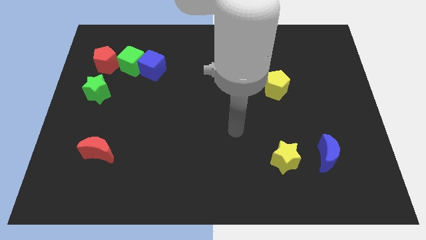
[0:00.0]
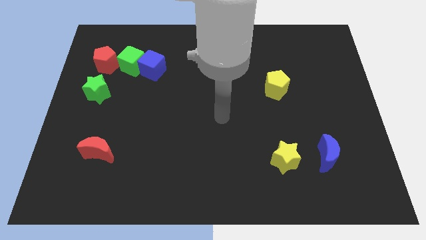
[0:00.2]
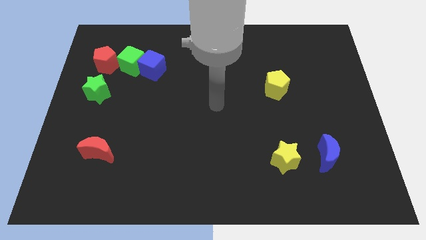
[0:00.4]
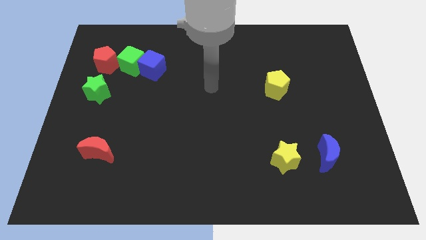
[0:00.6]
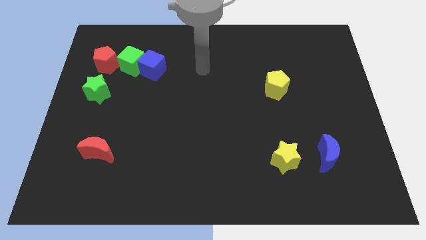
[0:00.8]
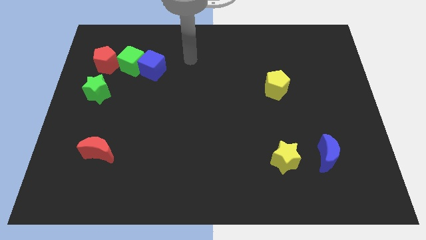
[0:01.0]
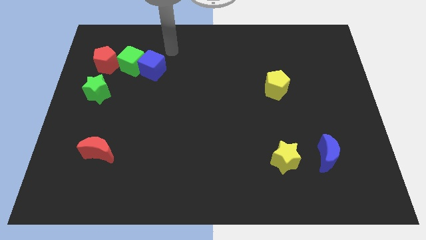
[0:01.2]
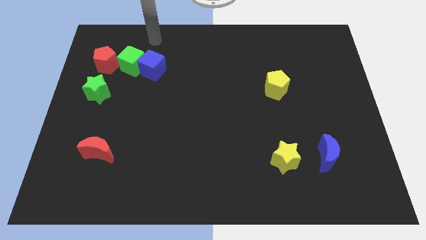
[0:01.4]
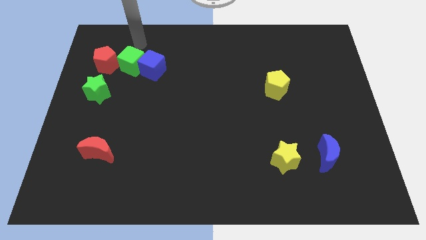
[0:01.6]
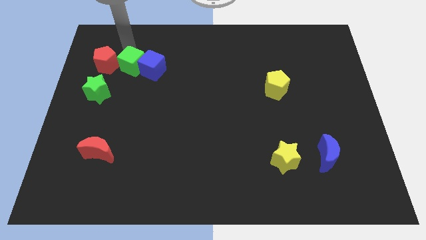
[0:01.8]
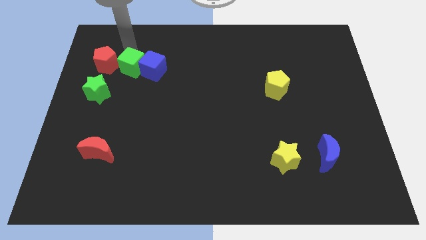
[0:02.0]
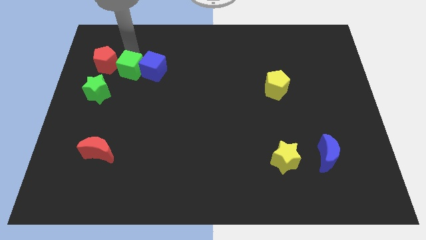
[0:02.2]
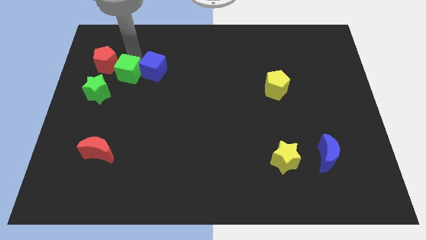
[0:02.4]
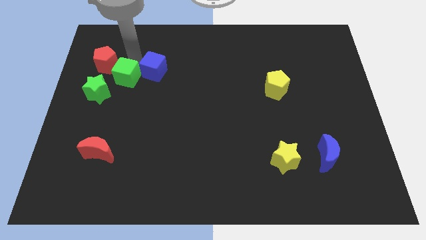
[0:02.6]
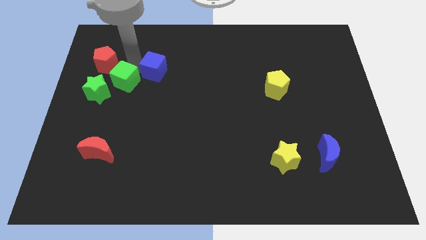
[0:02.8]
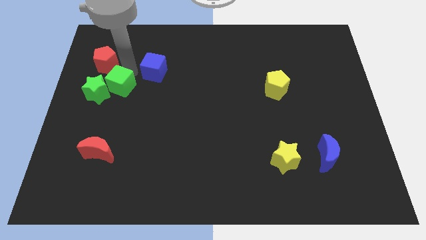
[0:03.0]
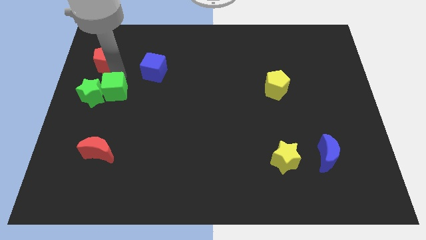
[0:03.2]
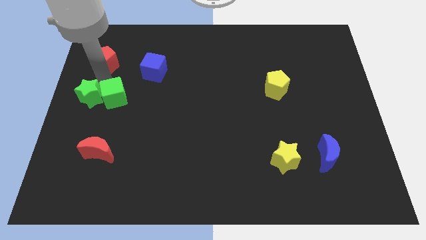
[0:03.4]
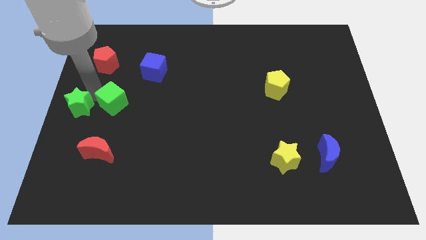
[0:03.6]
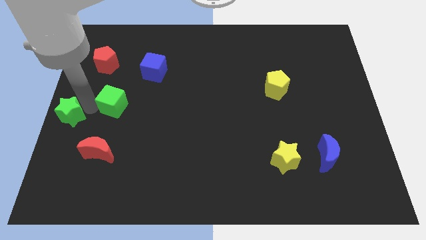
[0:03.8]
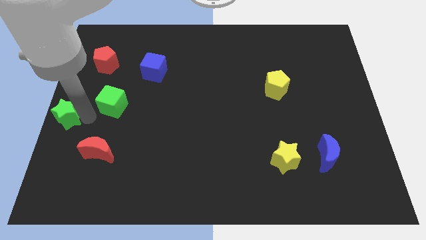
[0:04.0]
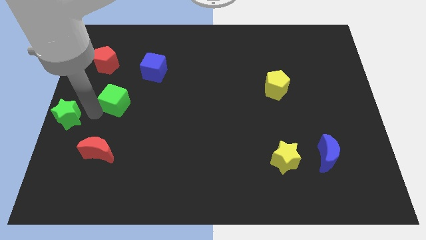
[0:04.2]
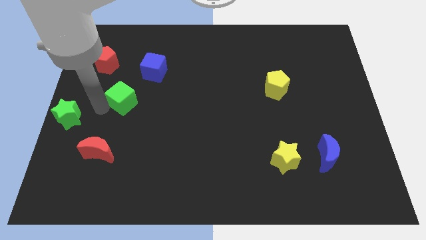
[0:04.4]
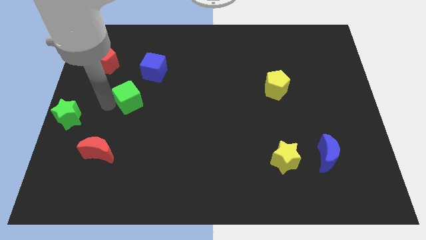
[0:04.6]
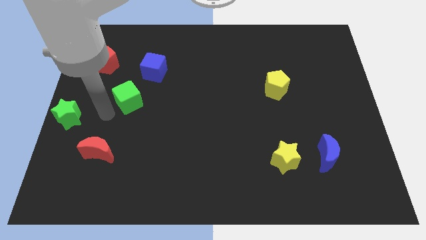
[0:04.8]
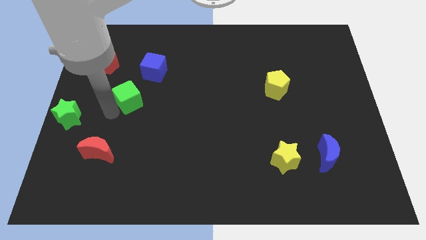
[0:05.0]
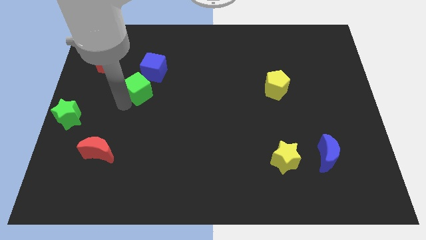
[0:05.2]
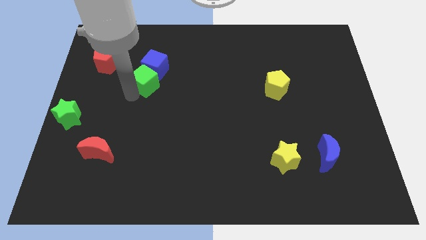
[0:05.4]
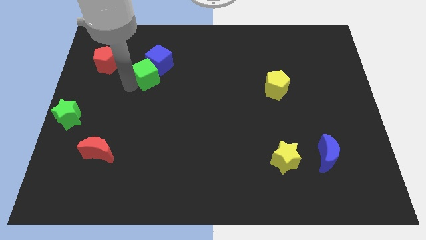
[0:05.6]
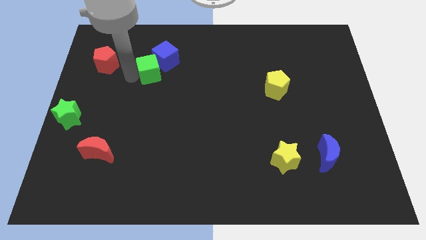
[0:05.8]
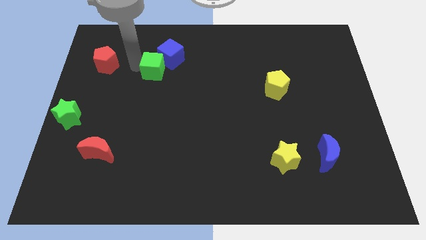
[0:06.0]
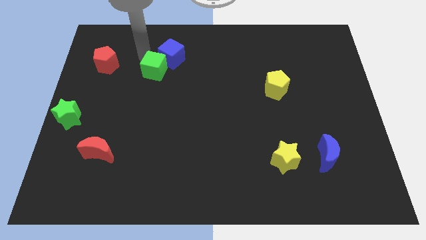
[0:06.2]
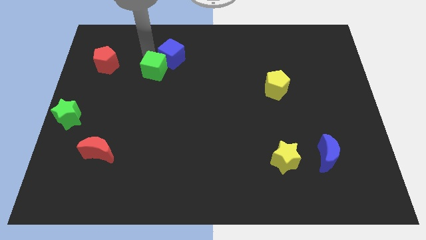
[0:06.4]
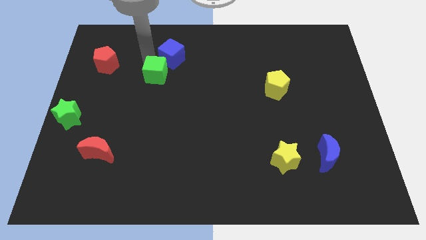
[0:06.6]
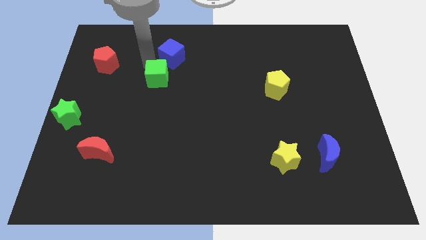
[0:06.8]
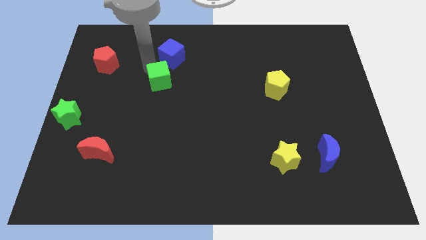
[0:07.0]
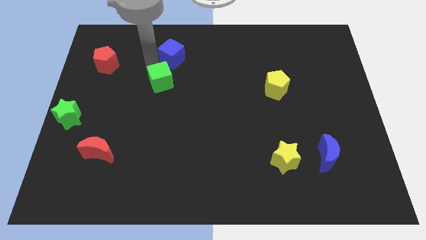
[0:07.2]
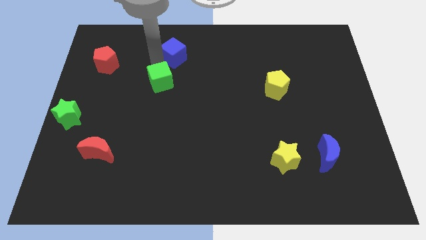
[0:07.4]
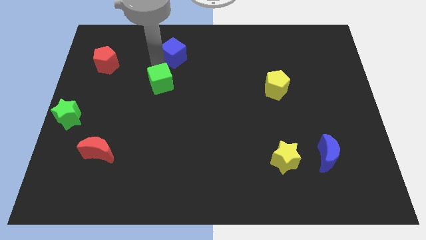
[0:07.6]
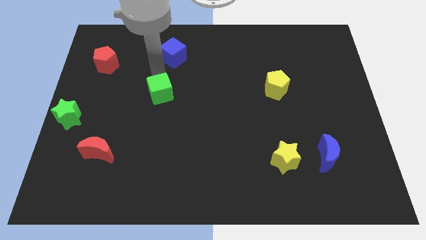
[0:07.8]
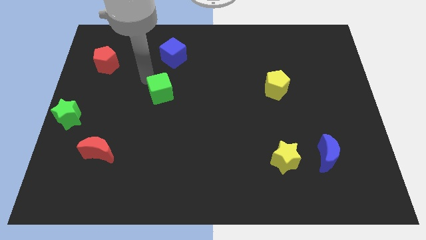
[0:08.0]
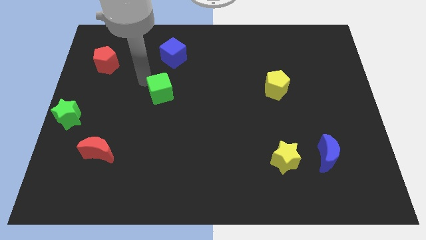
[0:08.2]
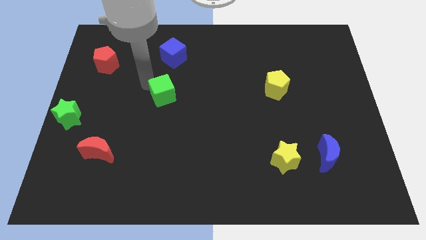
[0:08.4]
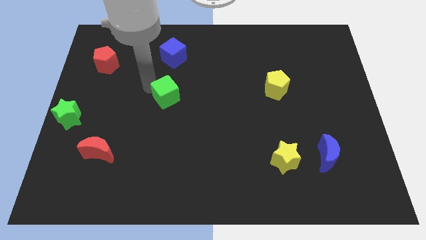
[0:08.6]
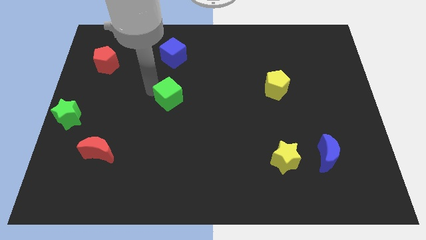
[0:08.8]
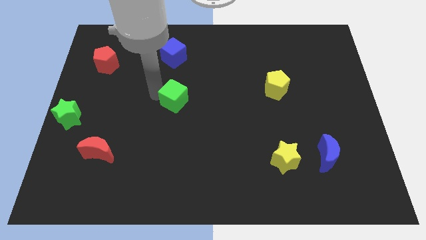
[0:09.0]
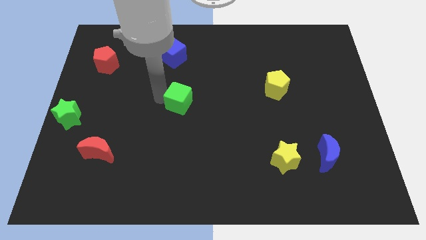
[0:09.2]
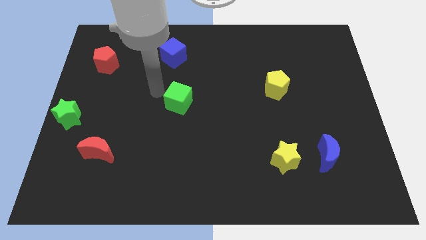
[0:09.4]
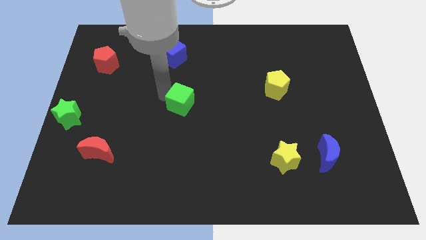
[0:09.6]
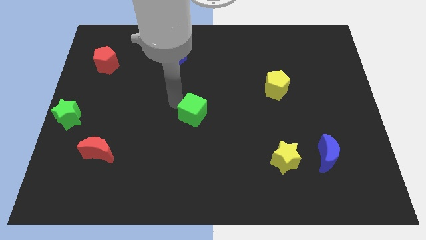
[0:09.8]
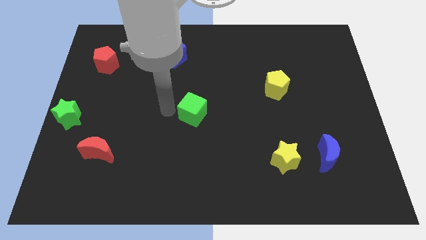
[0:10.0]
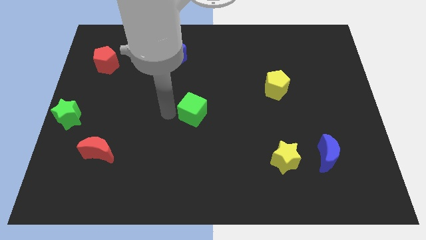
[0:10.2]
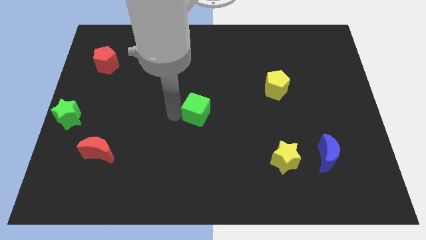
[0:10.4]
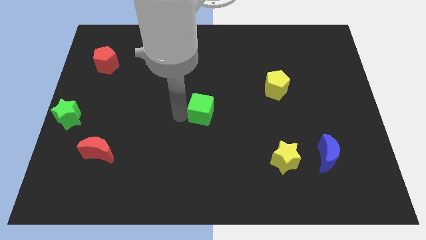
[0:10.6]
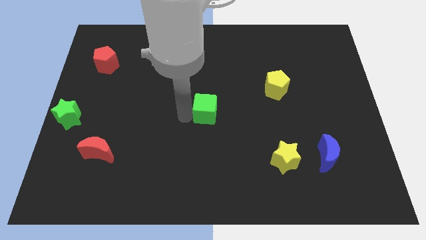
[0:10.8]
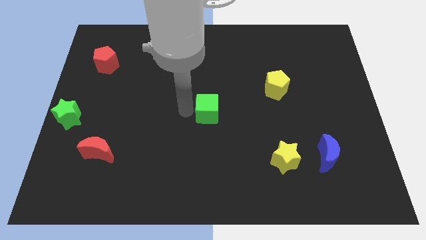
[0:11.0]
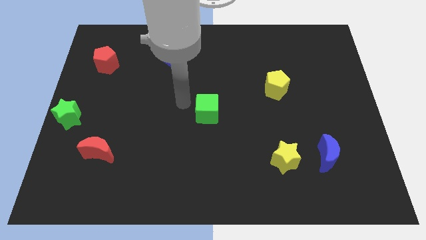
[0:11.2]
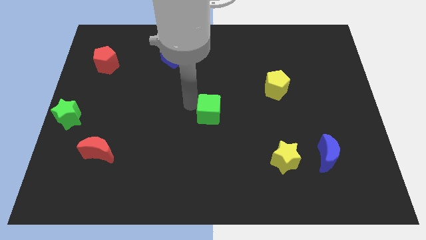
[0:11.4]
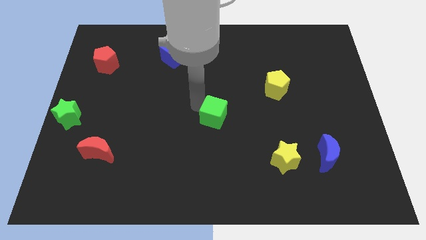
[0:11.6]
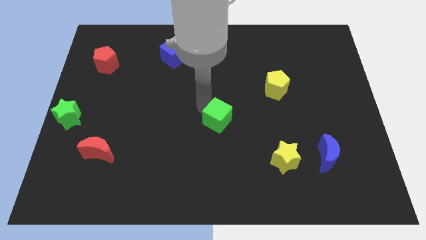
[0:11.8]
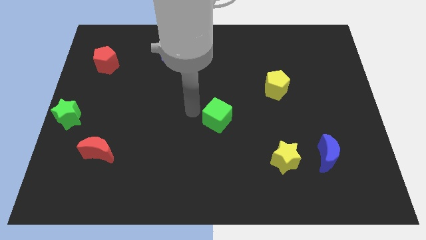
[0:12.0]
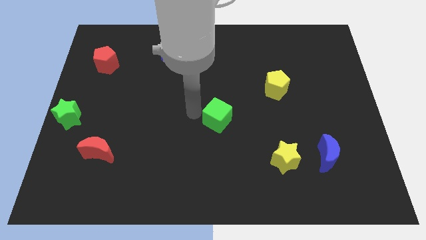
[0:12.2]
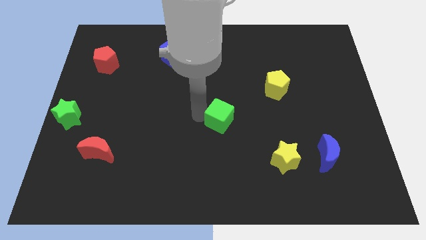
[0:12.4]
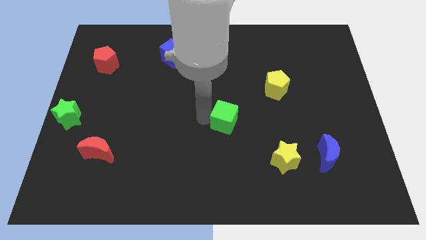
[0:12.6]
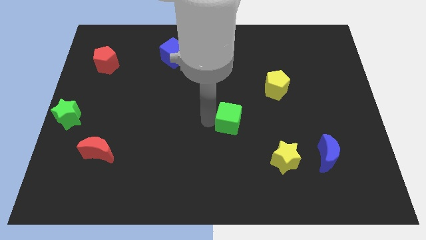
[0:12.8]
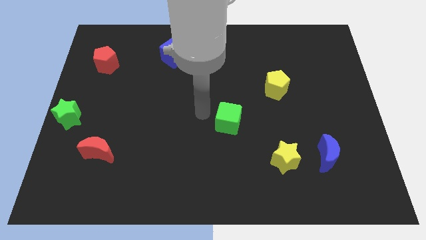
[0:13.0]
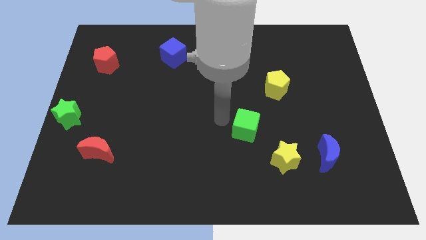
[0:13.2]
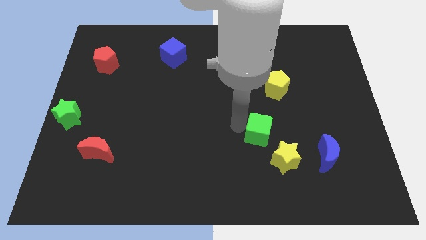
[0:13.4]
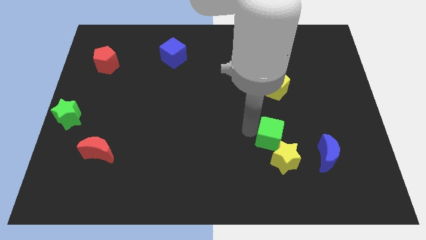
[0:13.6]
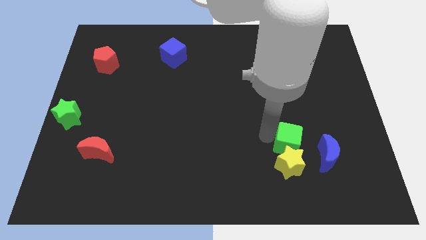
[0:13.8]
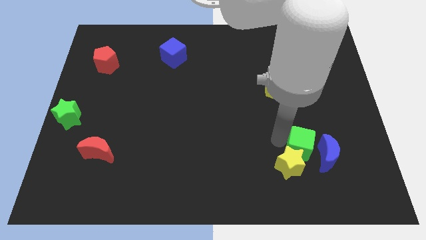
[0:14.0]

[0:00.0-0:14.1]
slide the green cube next to the blue moon

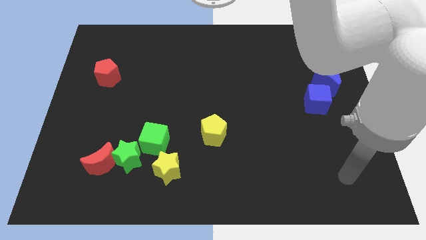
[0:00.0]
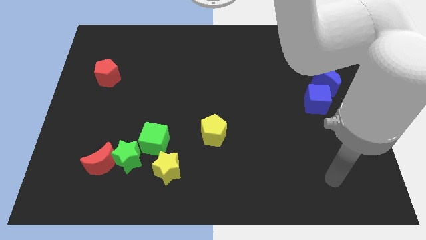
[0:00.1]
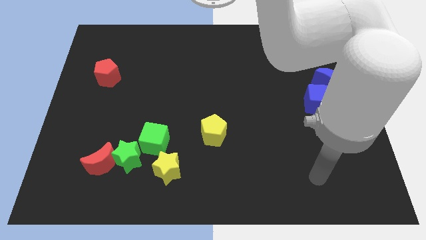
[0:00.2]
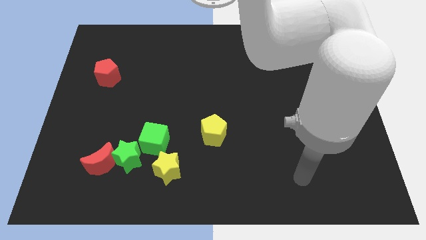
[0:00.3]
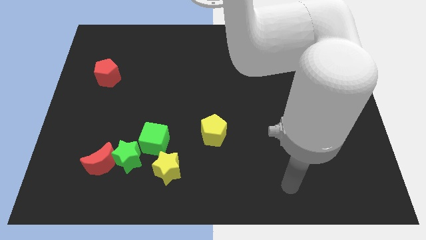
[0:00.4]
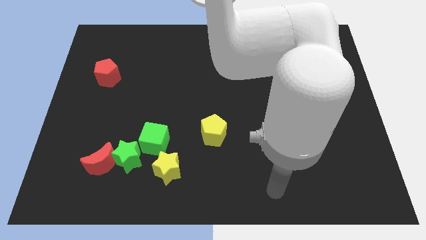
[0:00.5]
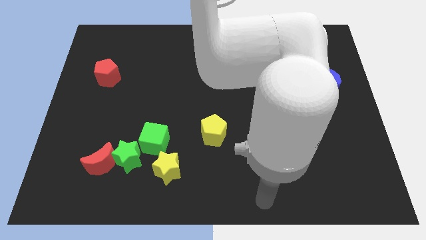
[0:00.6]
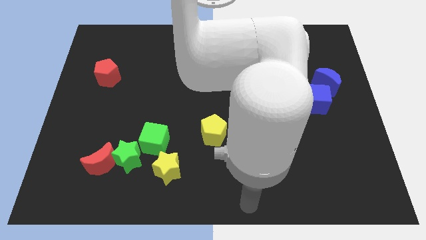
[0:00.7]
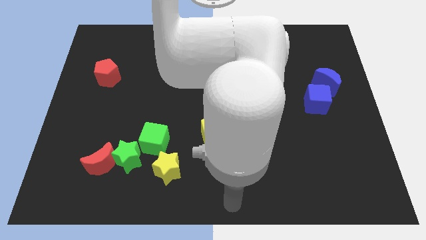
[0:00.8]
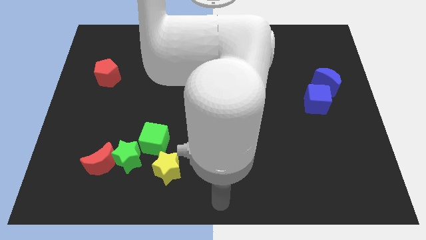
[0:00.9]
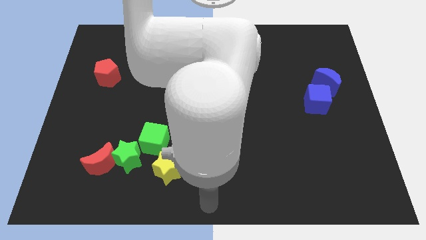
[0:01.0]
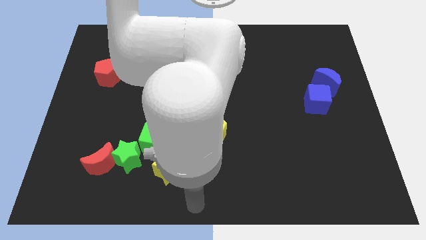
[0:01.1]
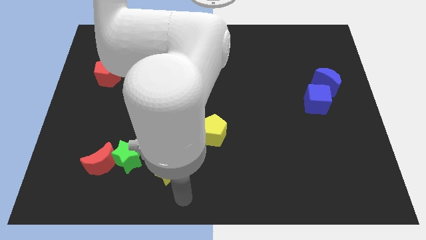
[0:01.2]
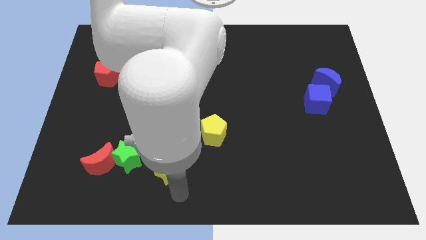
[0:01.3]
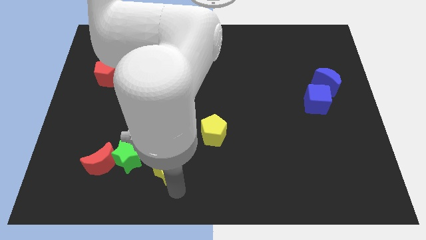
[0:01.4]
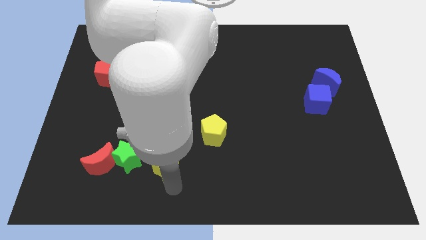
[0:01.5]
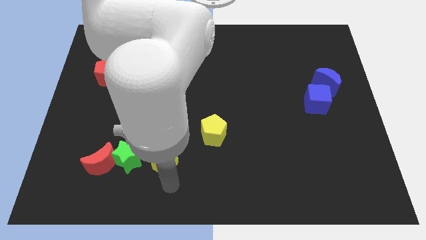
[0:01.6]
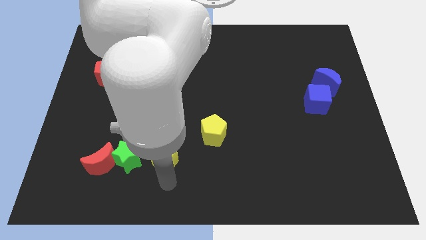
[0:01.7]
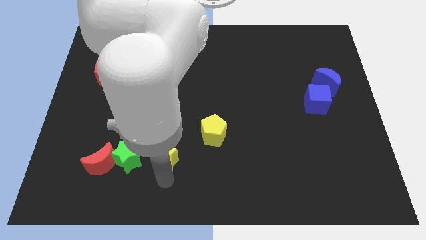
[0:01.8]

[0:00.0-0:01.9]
slide the yellow star to the green cube
